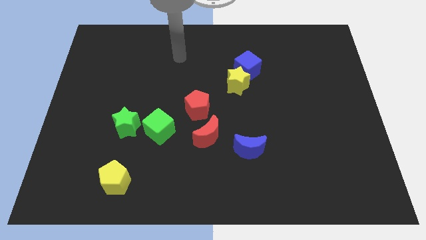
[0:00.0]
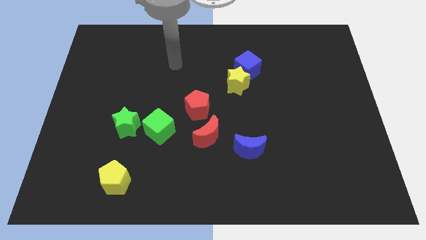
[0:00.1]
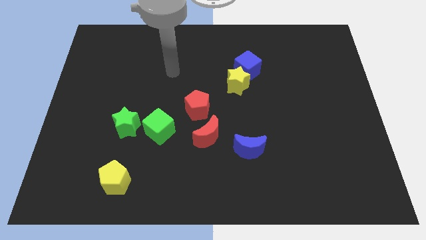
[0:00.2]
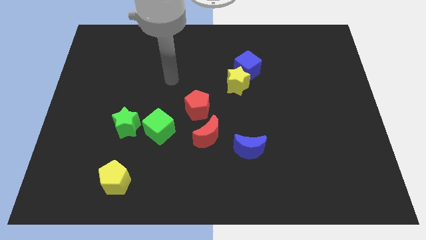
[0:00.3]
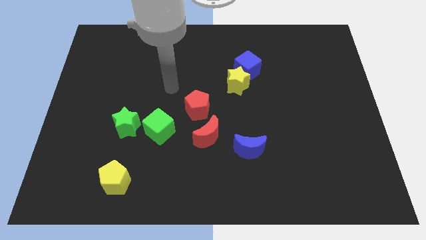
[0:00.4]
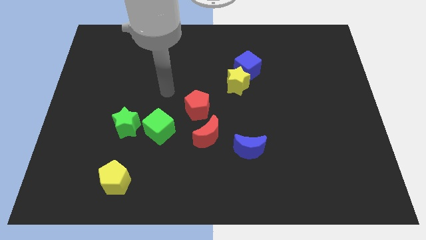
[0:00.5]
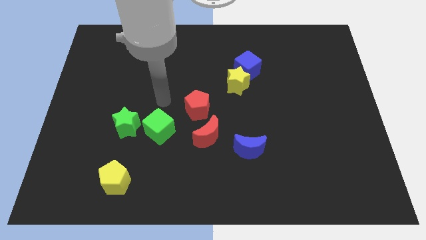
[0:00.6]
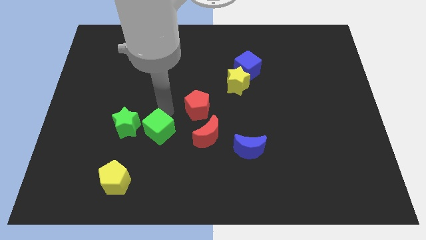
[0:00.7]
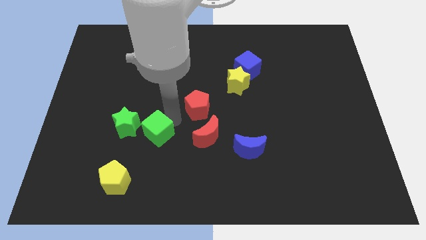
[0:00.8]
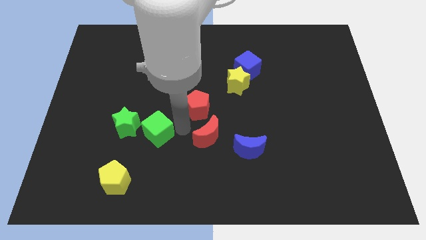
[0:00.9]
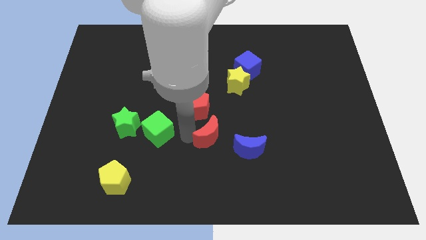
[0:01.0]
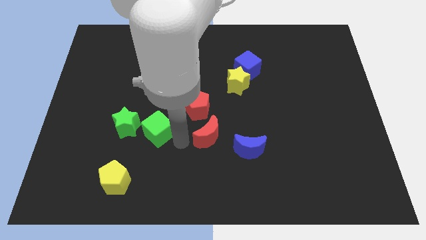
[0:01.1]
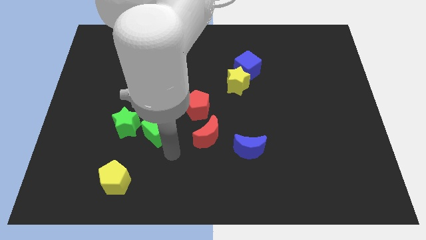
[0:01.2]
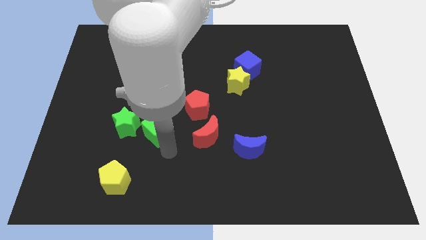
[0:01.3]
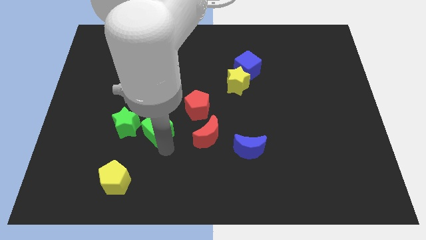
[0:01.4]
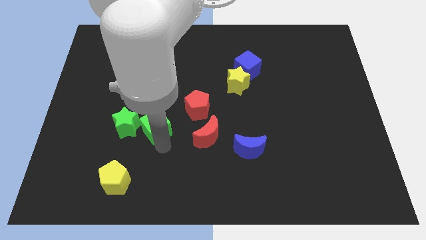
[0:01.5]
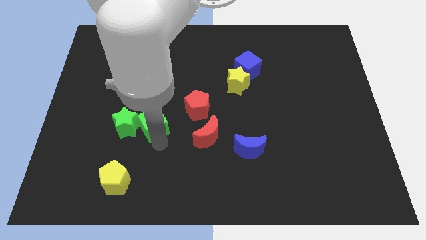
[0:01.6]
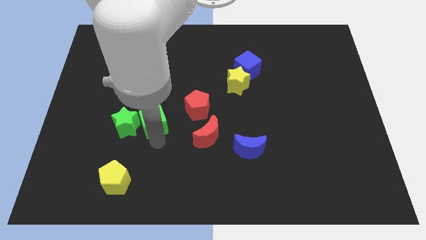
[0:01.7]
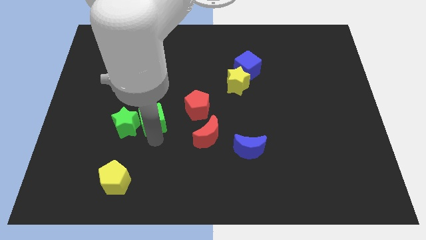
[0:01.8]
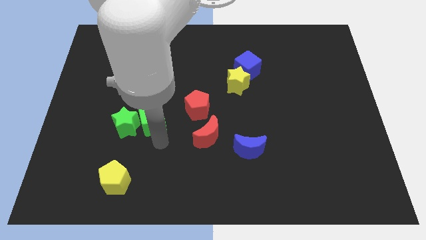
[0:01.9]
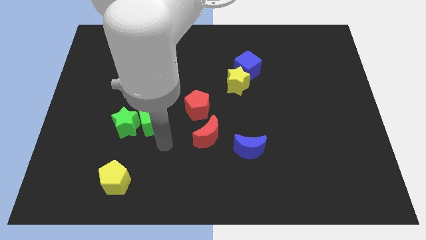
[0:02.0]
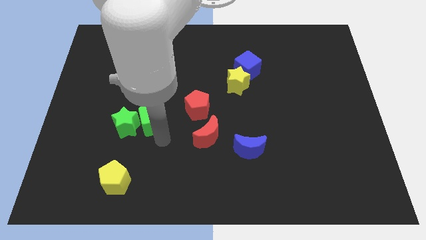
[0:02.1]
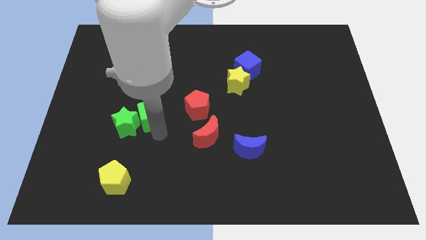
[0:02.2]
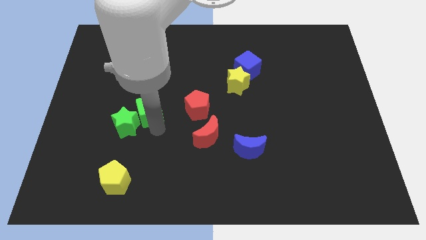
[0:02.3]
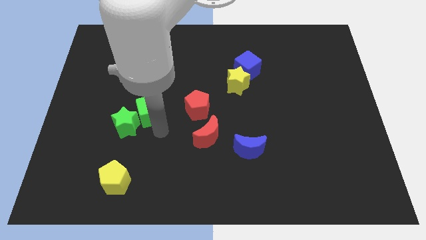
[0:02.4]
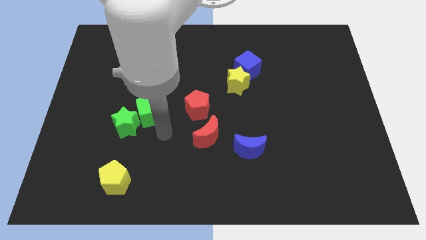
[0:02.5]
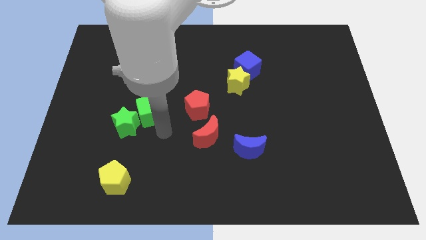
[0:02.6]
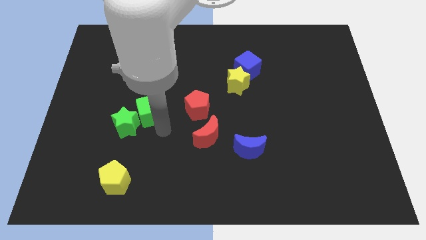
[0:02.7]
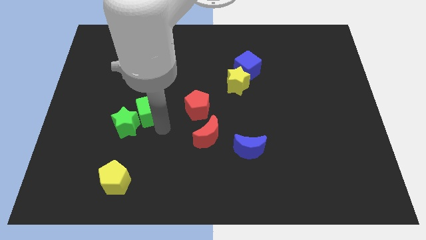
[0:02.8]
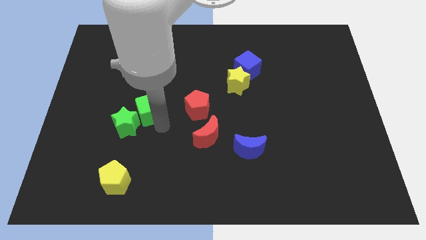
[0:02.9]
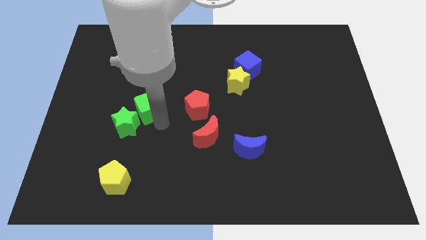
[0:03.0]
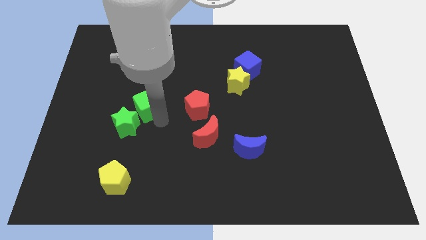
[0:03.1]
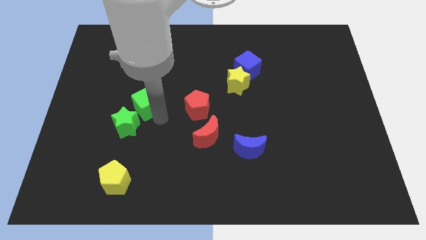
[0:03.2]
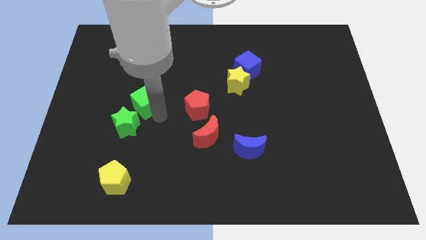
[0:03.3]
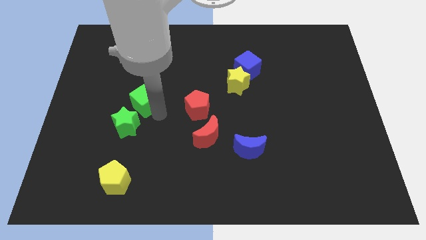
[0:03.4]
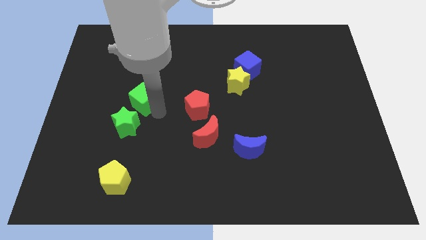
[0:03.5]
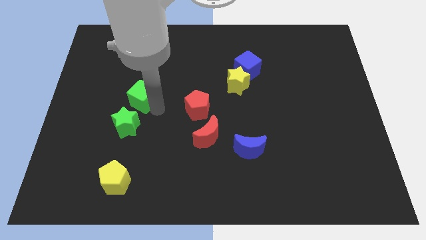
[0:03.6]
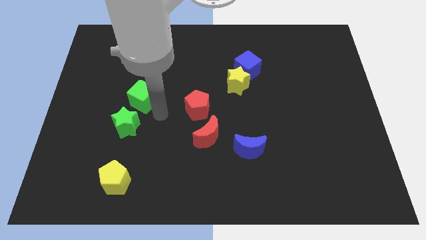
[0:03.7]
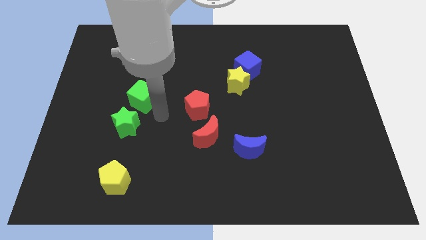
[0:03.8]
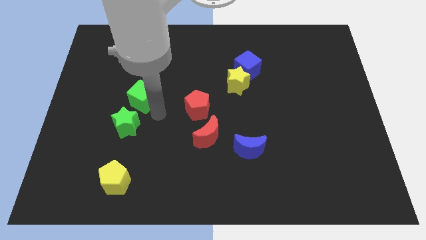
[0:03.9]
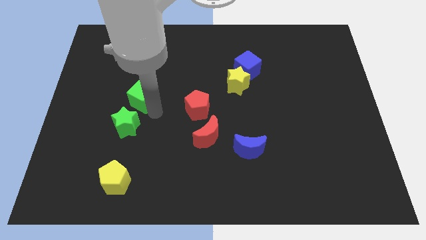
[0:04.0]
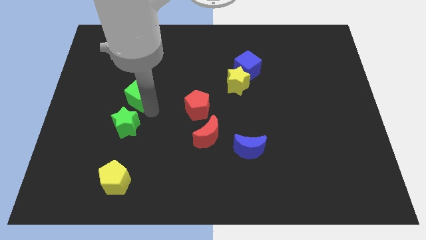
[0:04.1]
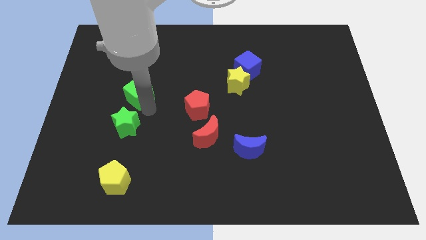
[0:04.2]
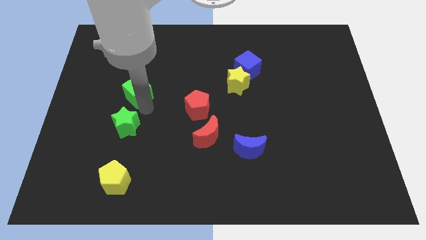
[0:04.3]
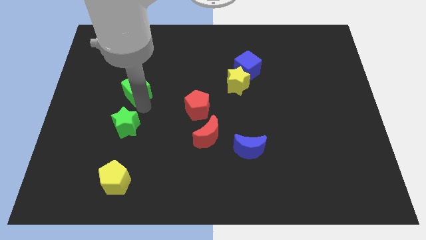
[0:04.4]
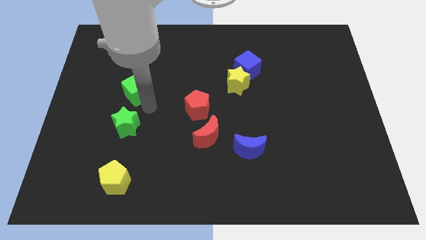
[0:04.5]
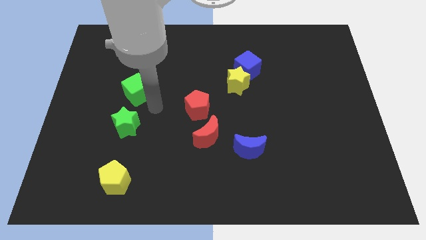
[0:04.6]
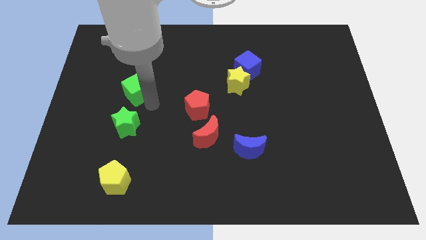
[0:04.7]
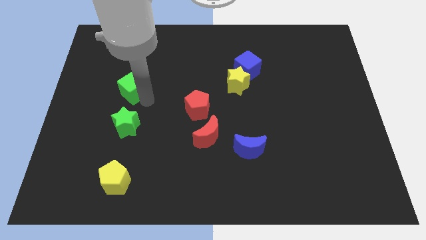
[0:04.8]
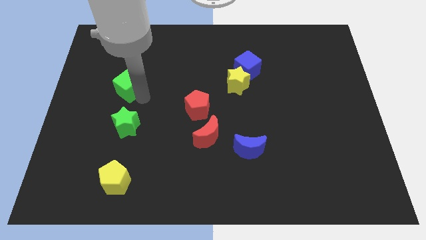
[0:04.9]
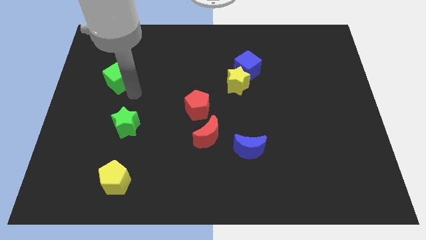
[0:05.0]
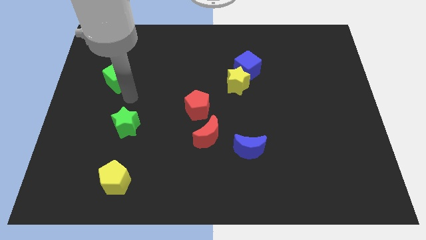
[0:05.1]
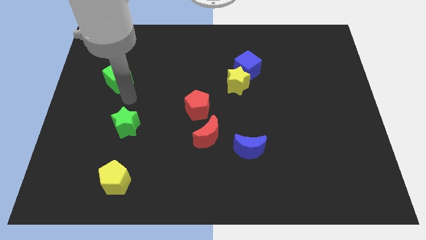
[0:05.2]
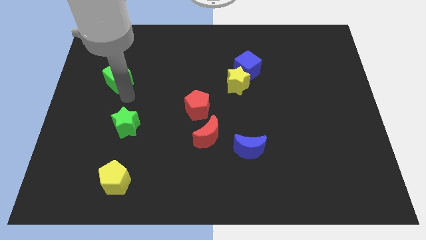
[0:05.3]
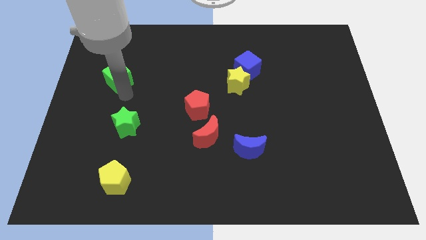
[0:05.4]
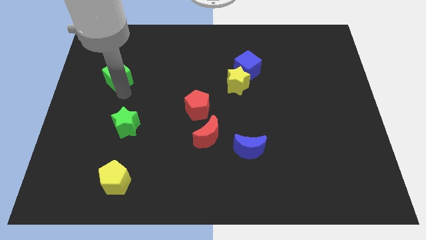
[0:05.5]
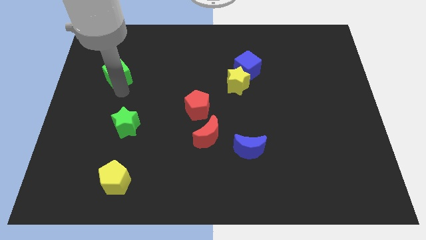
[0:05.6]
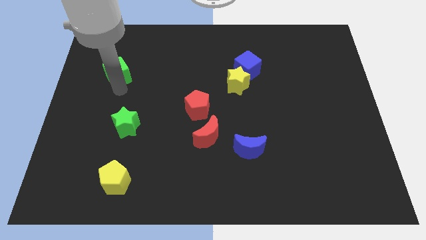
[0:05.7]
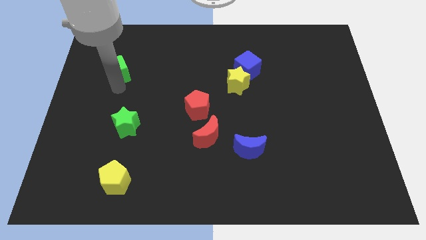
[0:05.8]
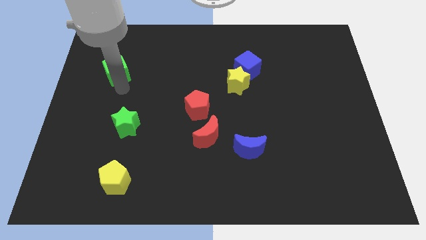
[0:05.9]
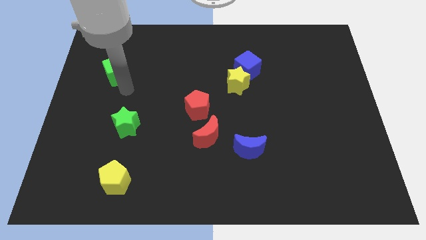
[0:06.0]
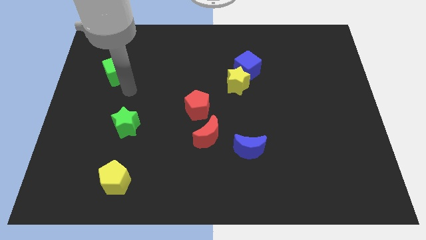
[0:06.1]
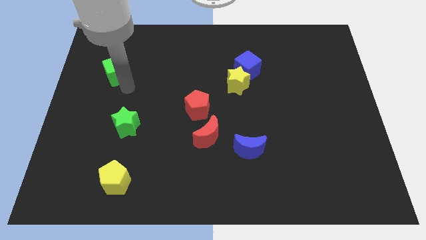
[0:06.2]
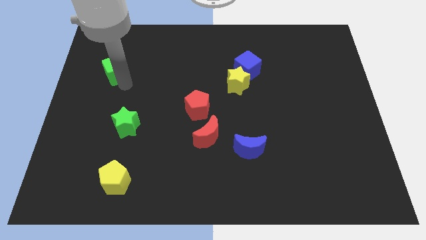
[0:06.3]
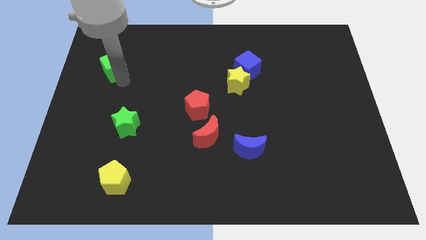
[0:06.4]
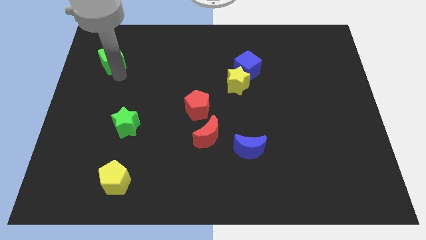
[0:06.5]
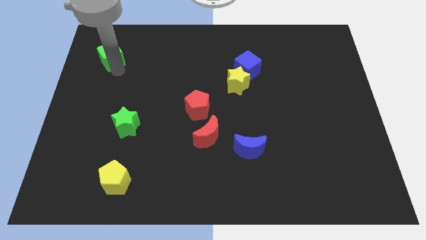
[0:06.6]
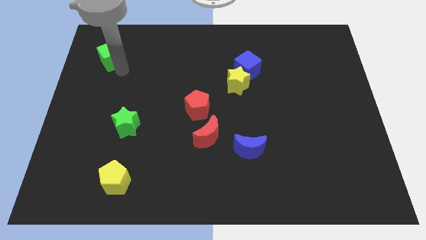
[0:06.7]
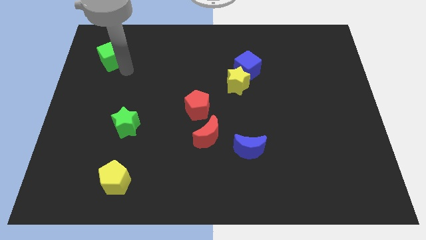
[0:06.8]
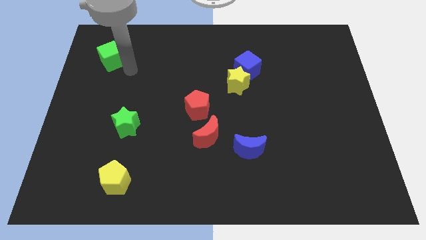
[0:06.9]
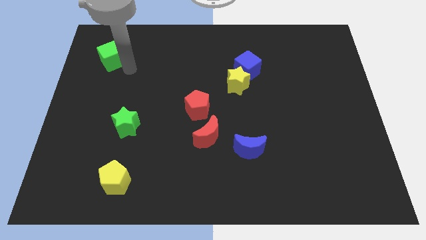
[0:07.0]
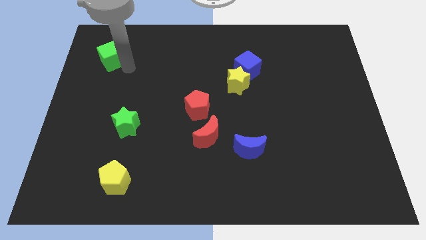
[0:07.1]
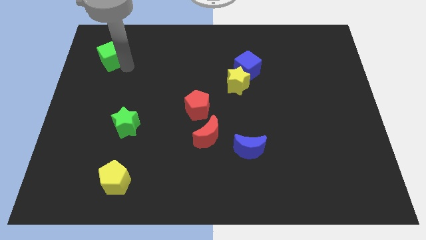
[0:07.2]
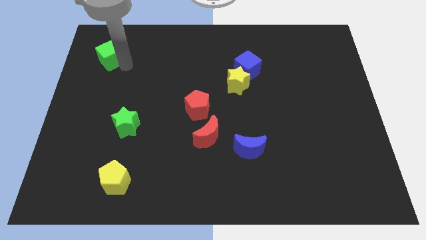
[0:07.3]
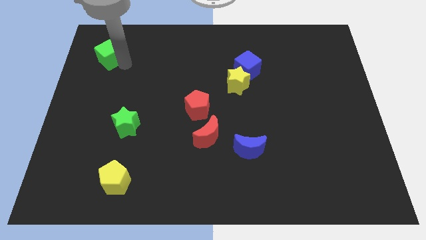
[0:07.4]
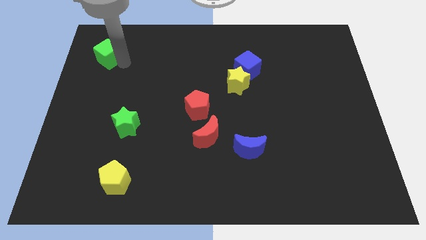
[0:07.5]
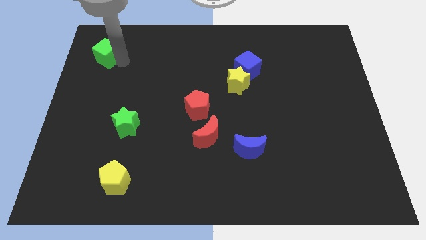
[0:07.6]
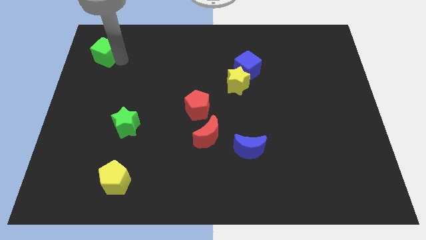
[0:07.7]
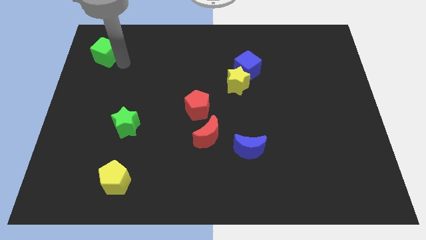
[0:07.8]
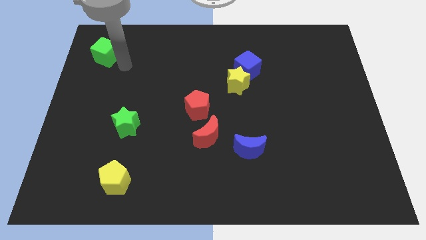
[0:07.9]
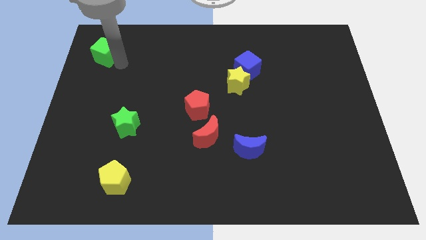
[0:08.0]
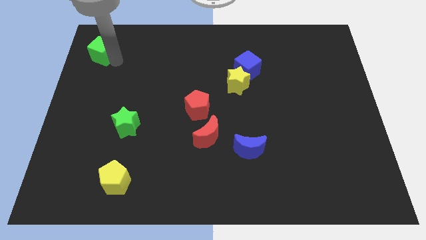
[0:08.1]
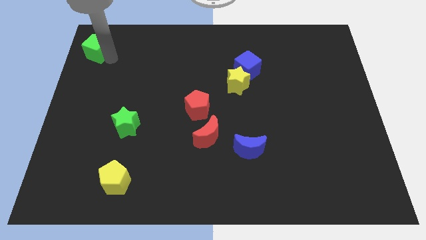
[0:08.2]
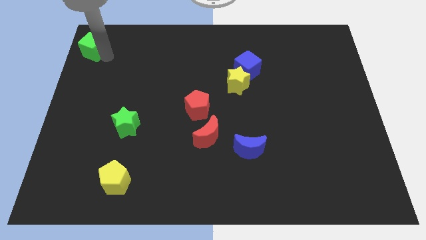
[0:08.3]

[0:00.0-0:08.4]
move the green cube to the upper left corner
